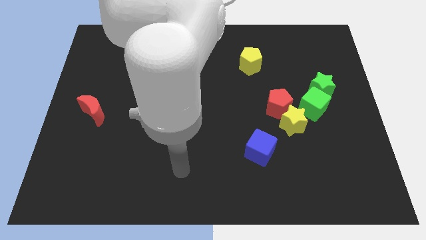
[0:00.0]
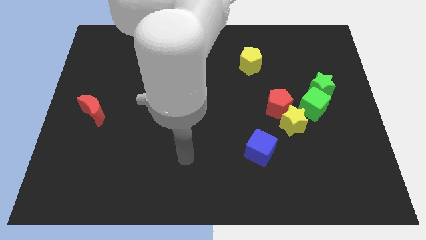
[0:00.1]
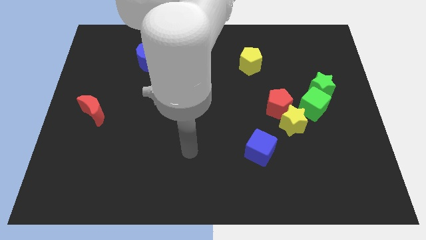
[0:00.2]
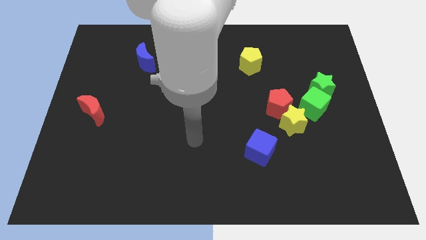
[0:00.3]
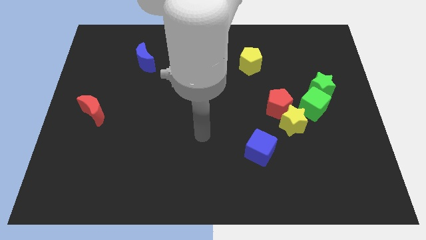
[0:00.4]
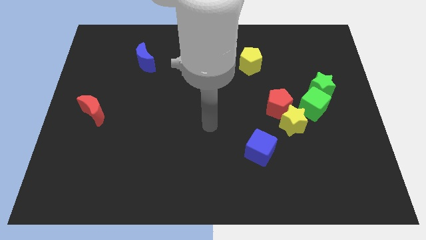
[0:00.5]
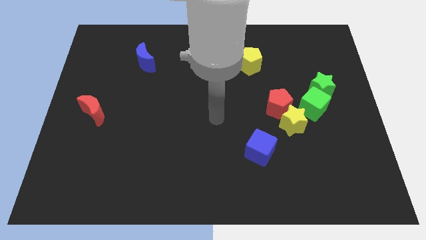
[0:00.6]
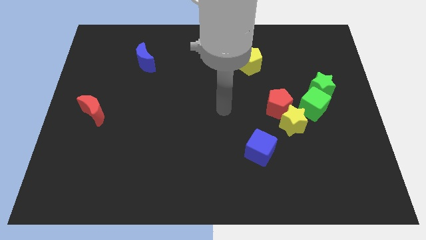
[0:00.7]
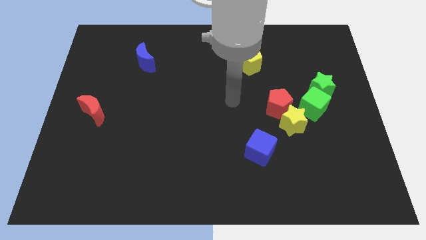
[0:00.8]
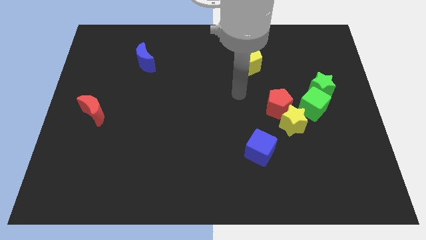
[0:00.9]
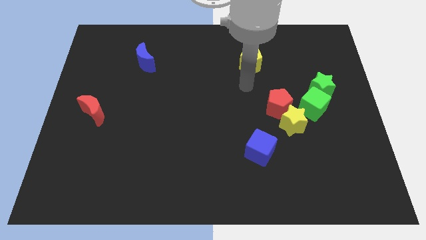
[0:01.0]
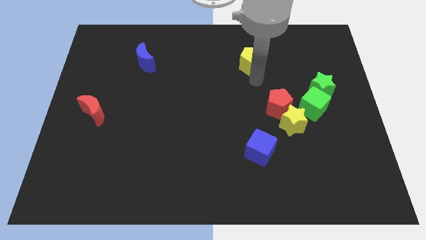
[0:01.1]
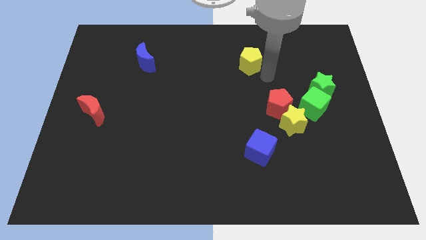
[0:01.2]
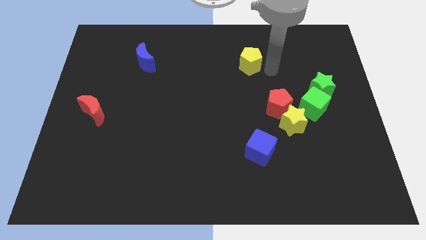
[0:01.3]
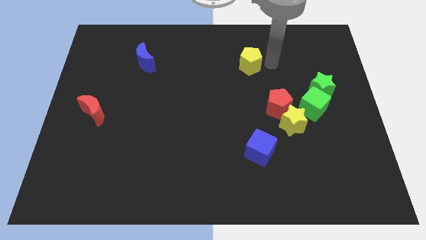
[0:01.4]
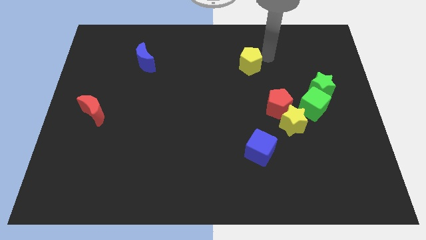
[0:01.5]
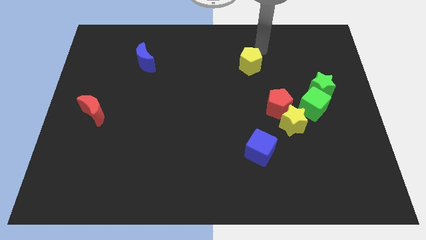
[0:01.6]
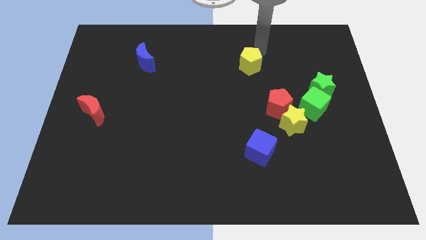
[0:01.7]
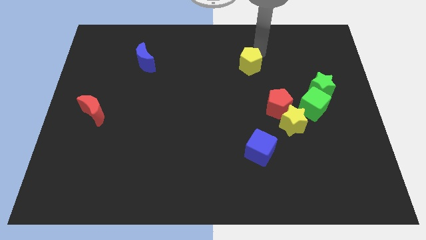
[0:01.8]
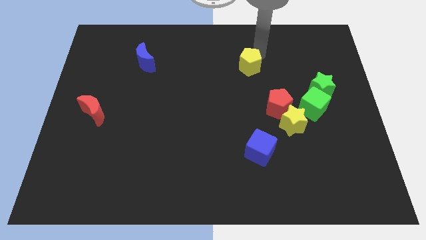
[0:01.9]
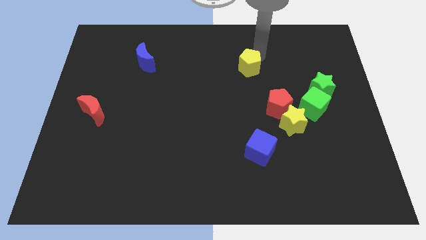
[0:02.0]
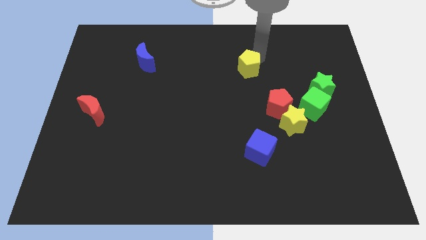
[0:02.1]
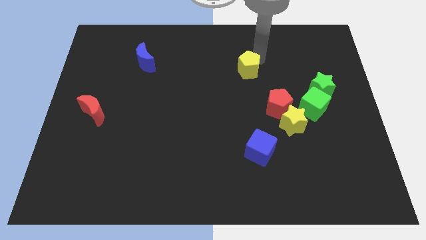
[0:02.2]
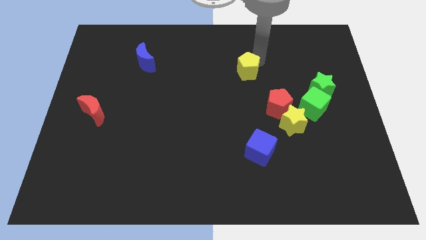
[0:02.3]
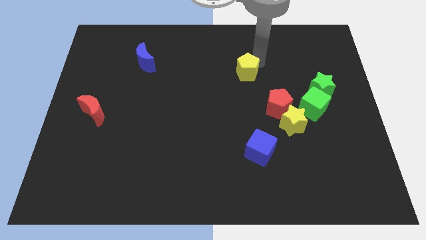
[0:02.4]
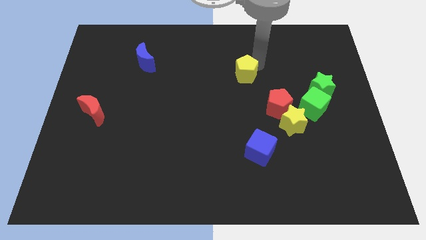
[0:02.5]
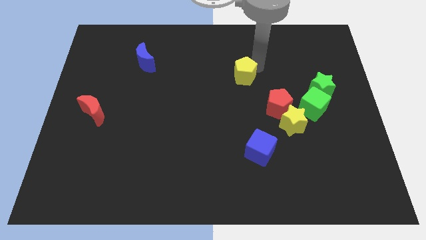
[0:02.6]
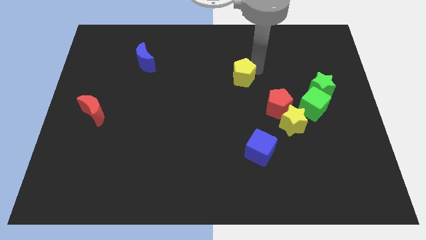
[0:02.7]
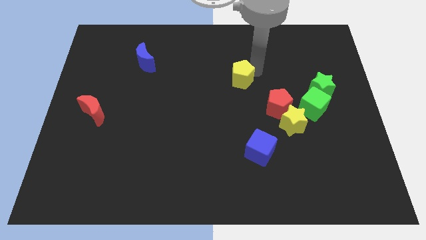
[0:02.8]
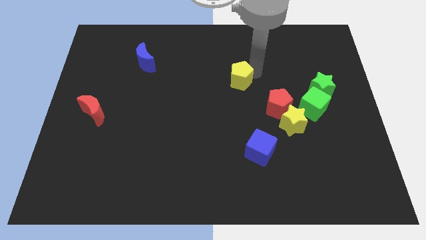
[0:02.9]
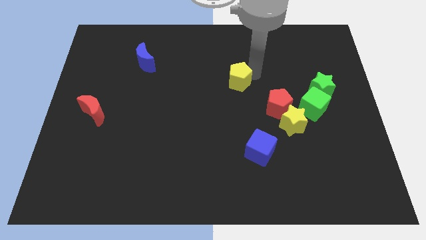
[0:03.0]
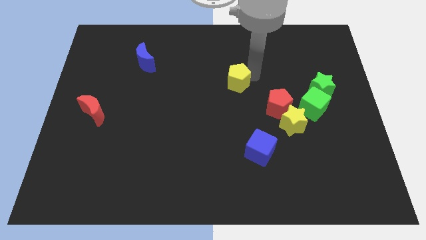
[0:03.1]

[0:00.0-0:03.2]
push the yellow pentagon down and then to the left a little bit

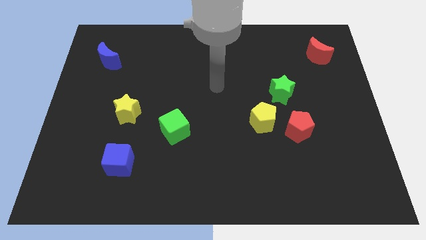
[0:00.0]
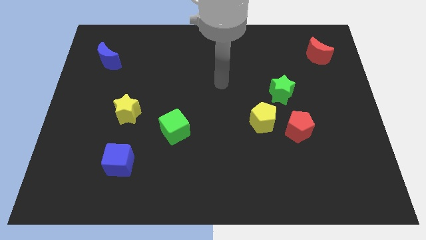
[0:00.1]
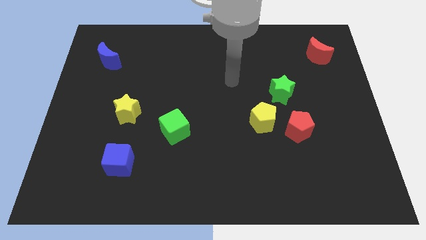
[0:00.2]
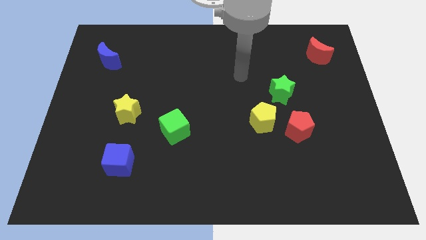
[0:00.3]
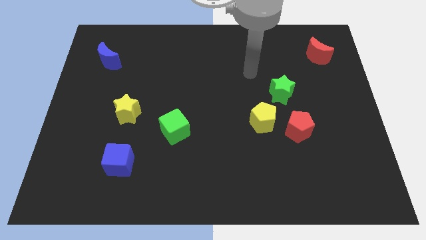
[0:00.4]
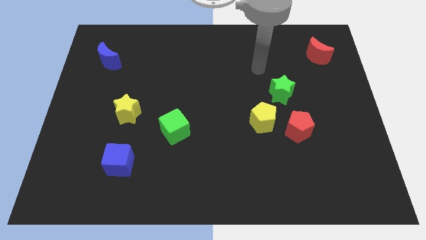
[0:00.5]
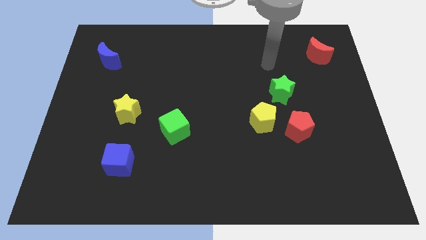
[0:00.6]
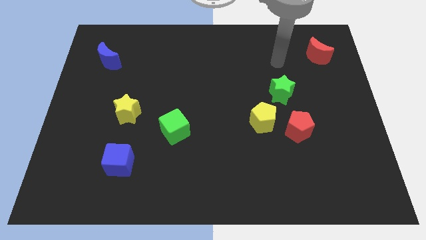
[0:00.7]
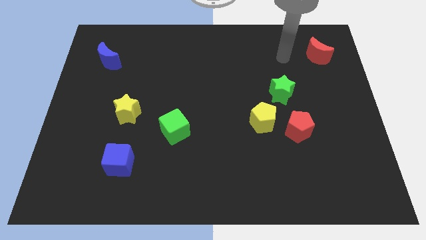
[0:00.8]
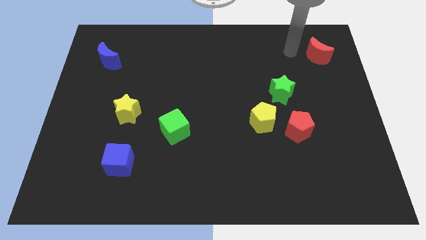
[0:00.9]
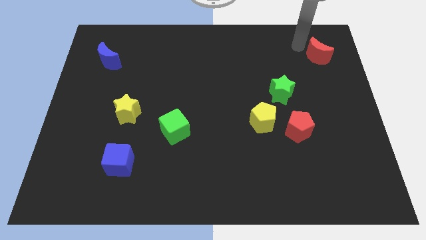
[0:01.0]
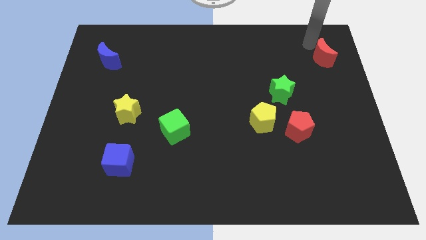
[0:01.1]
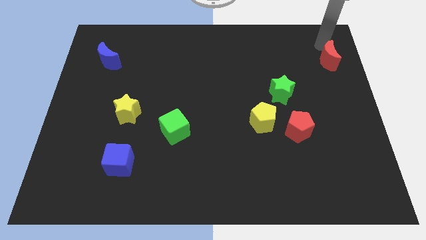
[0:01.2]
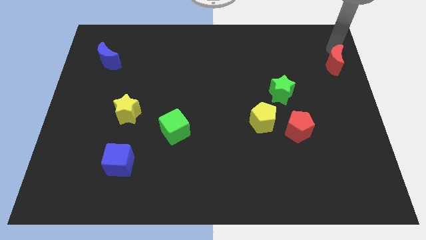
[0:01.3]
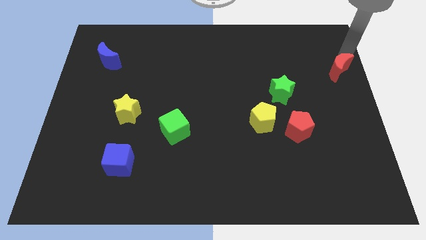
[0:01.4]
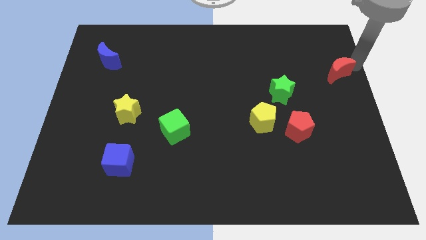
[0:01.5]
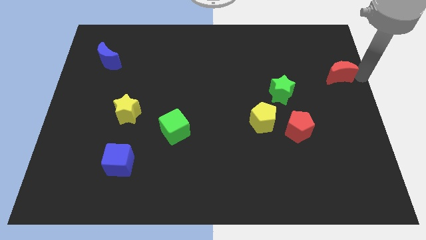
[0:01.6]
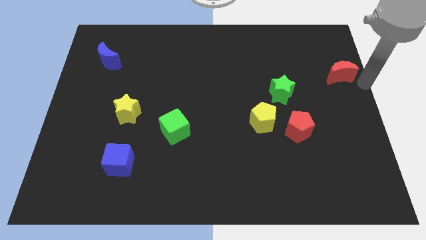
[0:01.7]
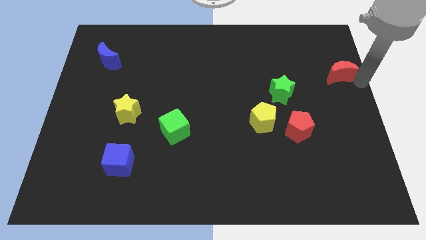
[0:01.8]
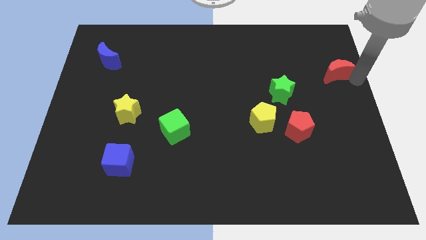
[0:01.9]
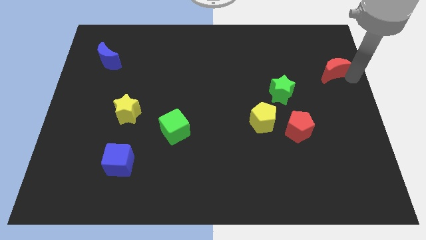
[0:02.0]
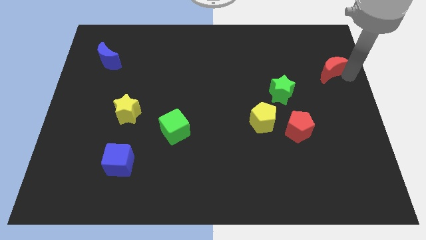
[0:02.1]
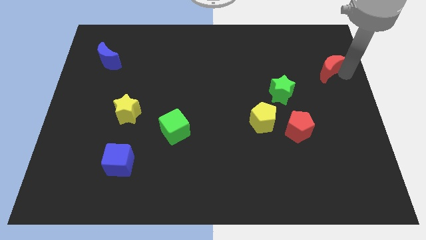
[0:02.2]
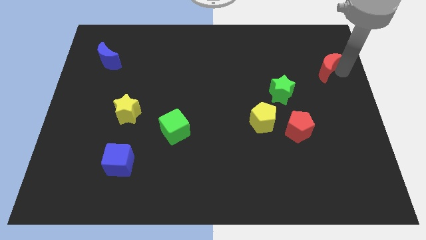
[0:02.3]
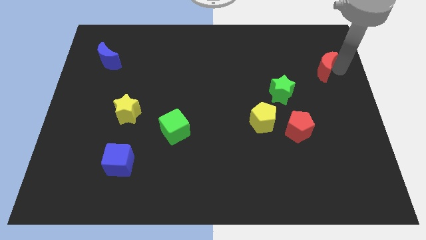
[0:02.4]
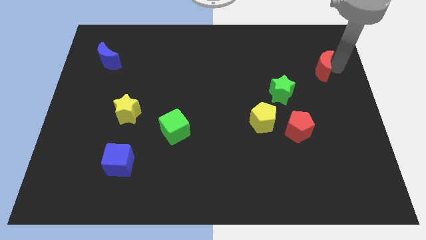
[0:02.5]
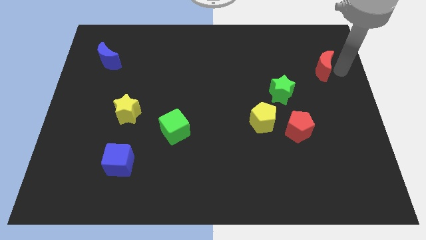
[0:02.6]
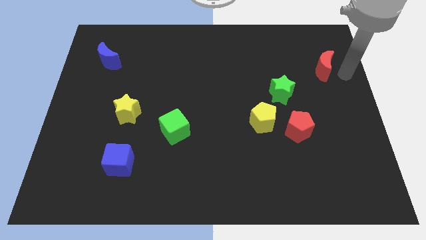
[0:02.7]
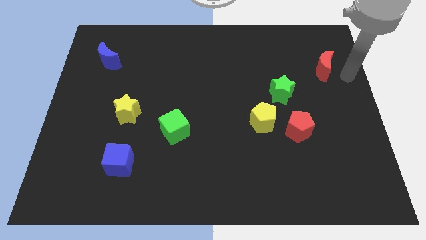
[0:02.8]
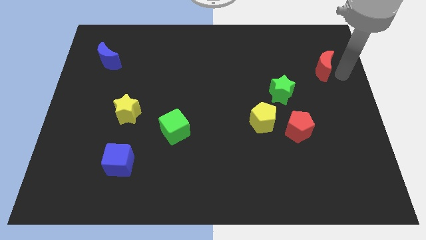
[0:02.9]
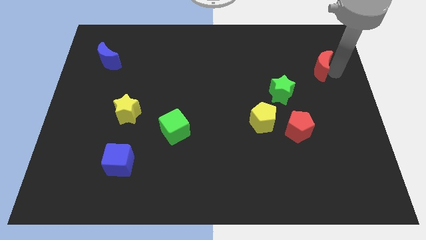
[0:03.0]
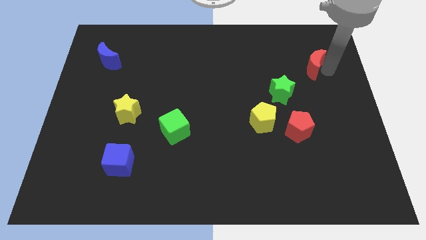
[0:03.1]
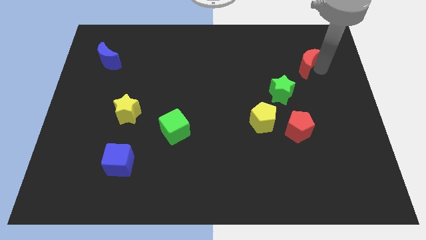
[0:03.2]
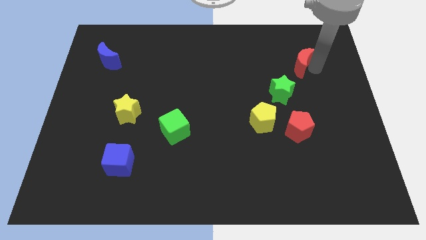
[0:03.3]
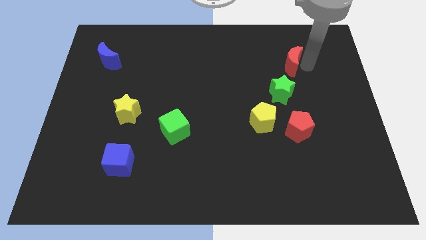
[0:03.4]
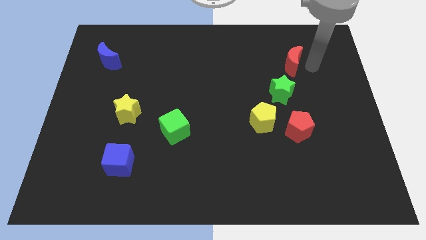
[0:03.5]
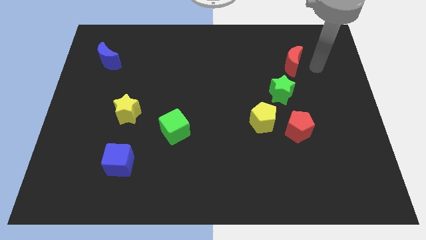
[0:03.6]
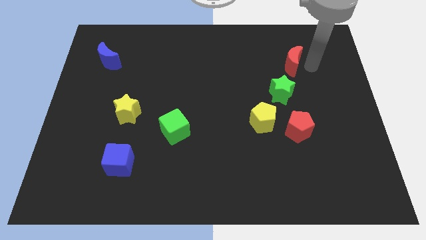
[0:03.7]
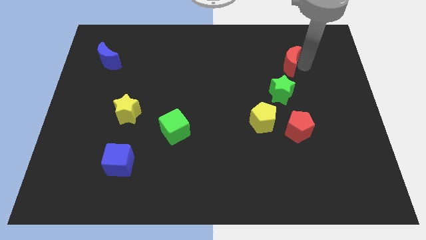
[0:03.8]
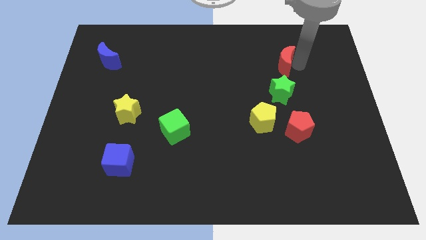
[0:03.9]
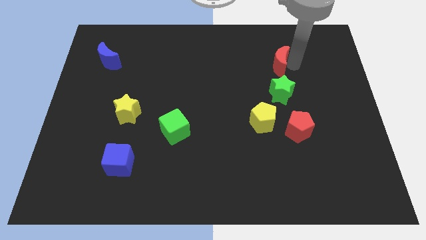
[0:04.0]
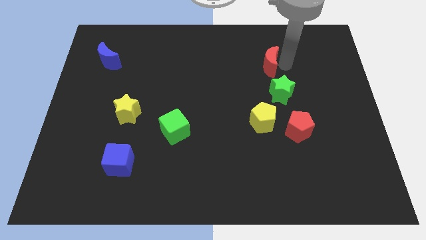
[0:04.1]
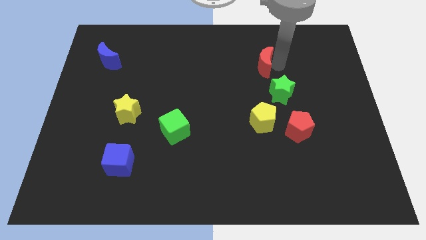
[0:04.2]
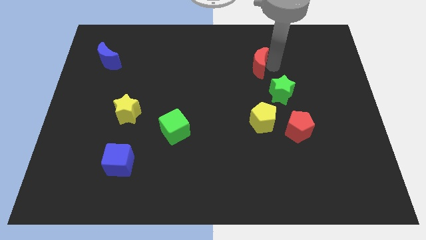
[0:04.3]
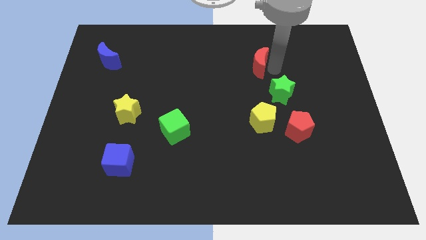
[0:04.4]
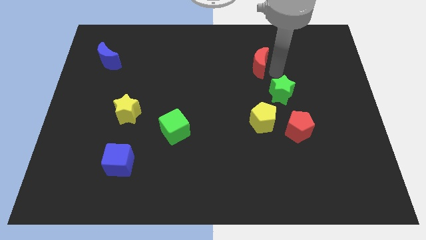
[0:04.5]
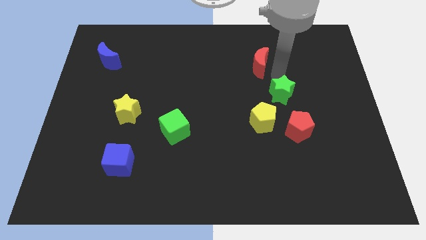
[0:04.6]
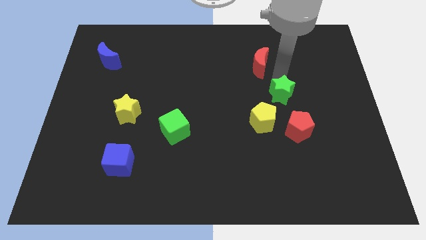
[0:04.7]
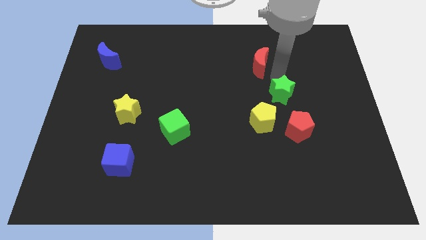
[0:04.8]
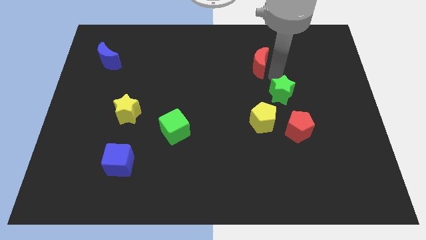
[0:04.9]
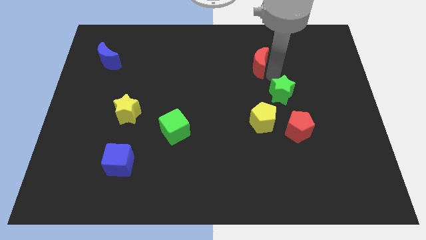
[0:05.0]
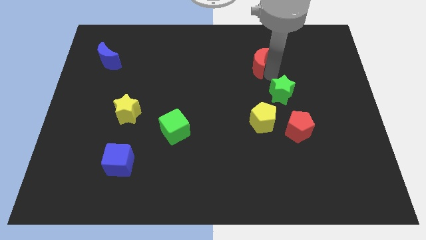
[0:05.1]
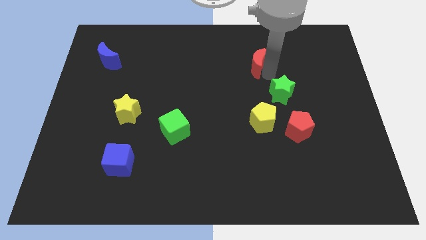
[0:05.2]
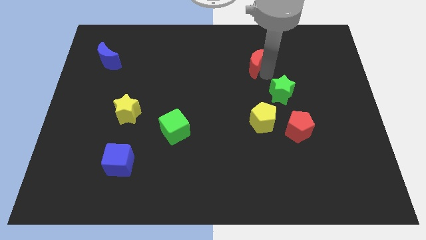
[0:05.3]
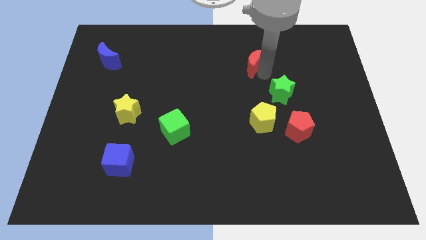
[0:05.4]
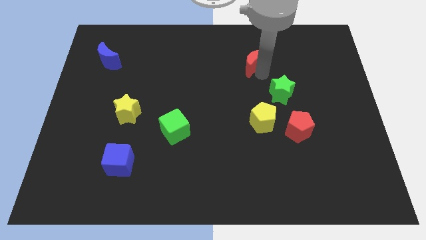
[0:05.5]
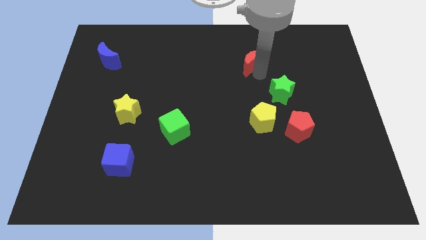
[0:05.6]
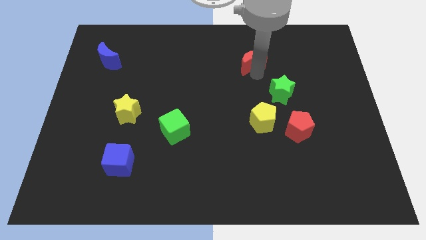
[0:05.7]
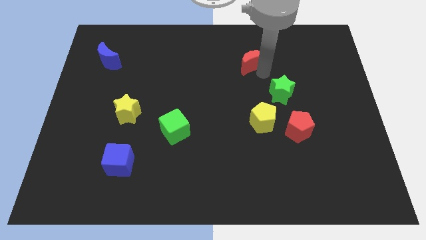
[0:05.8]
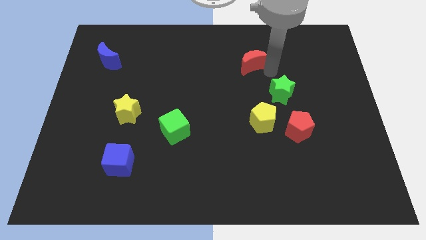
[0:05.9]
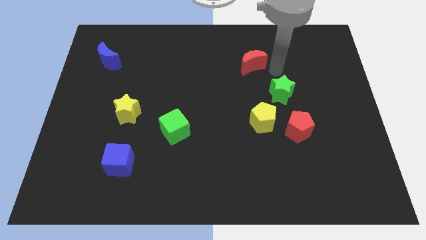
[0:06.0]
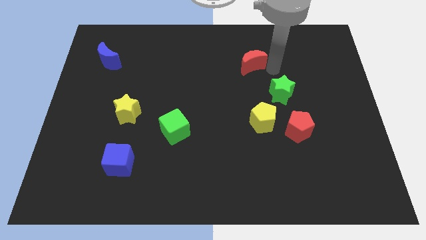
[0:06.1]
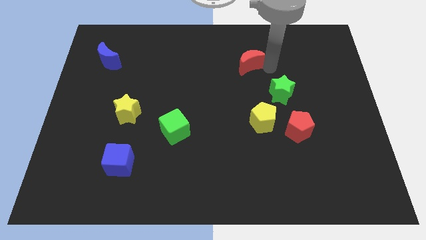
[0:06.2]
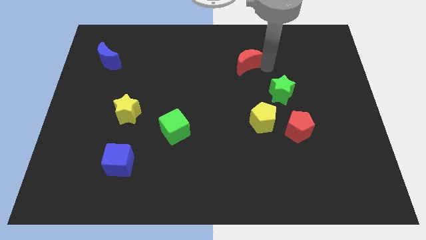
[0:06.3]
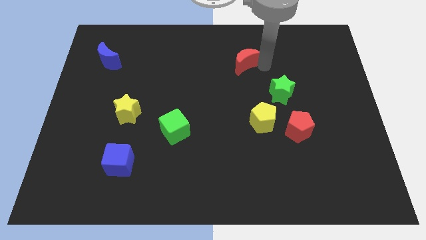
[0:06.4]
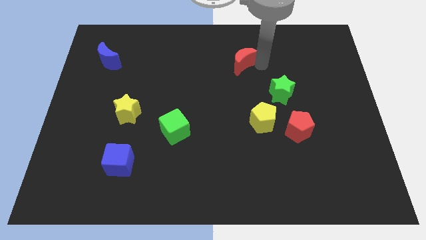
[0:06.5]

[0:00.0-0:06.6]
push the red moon to the left
